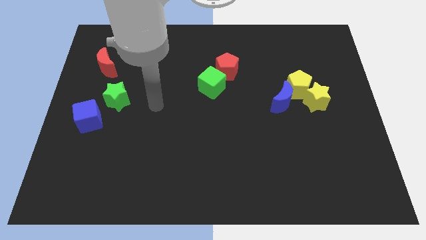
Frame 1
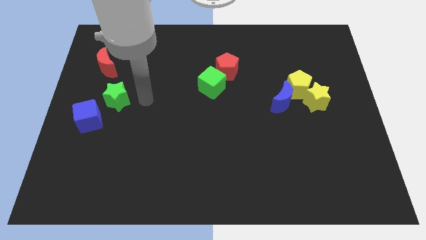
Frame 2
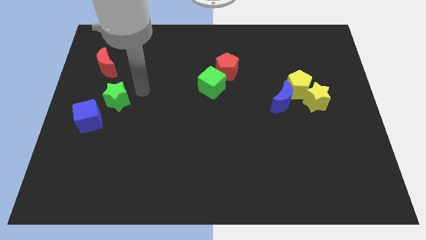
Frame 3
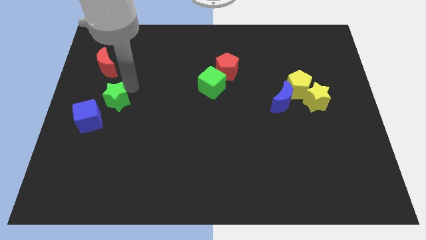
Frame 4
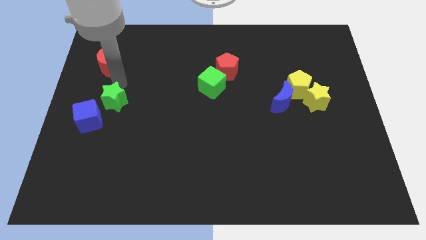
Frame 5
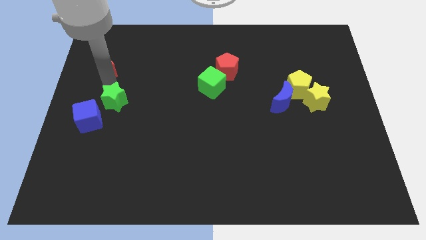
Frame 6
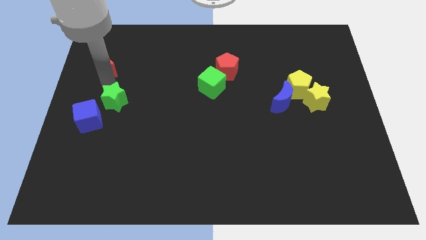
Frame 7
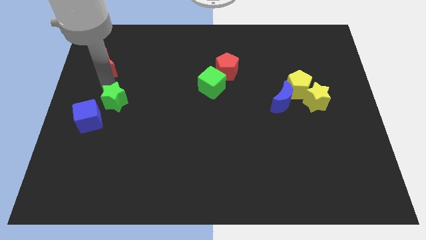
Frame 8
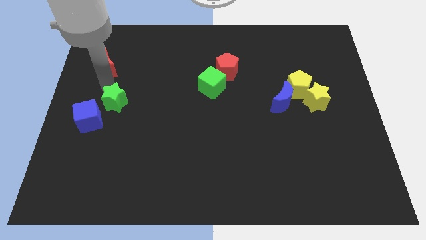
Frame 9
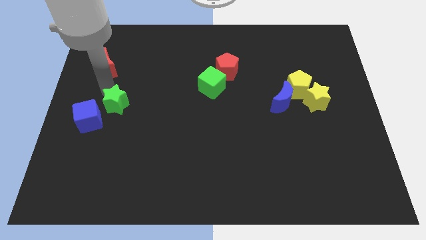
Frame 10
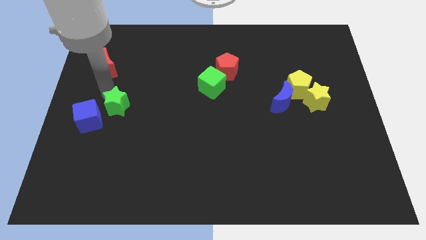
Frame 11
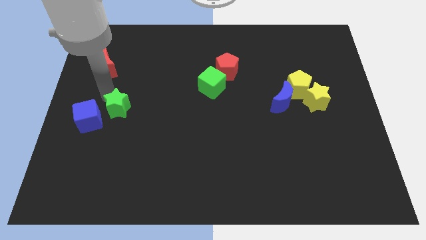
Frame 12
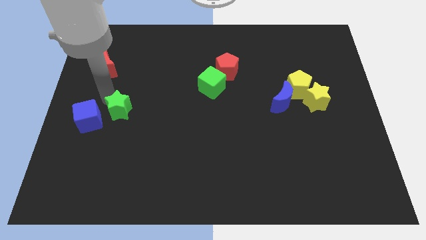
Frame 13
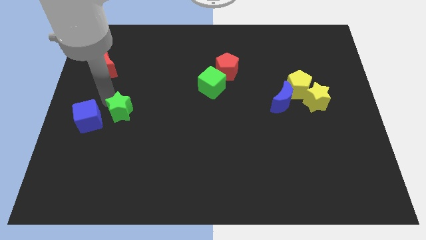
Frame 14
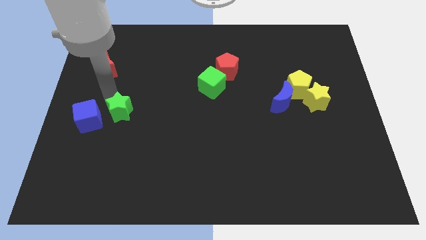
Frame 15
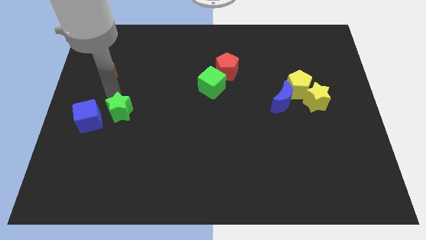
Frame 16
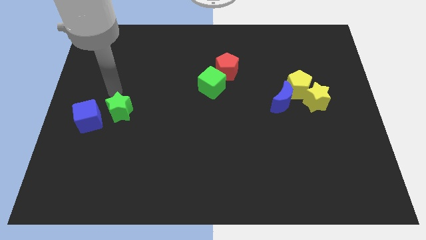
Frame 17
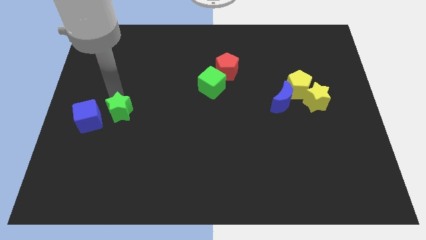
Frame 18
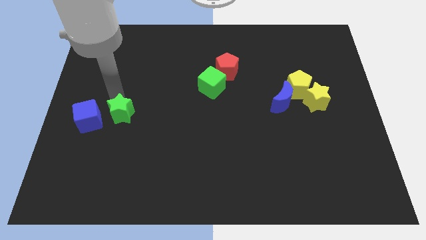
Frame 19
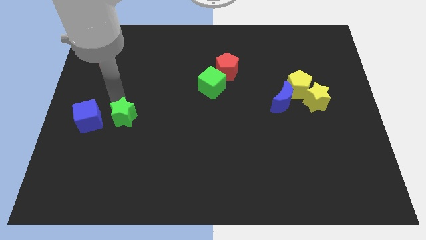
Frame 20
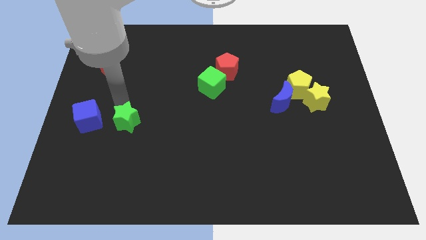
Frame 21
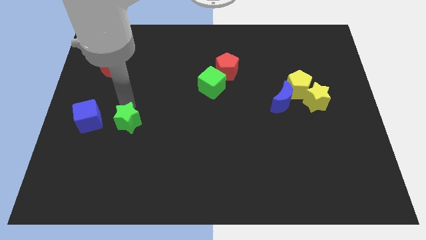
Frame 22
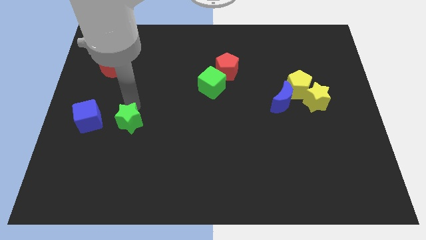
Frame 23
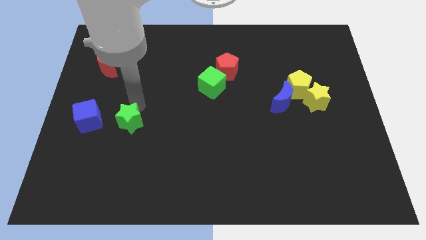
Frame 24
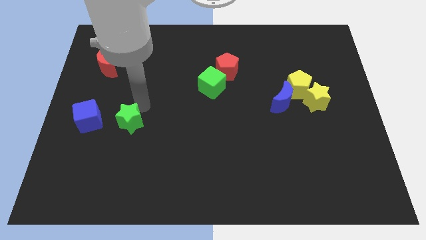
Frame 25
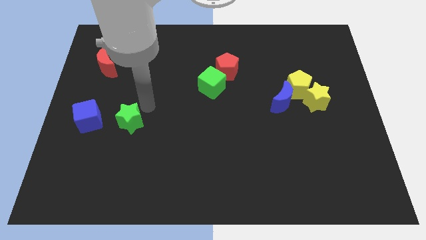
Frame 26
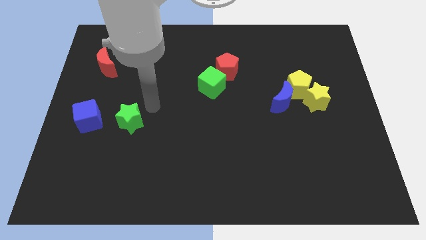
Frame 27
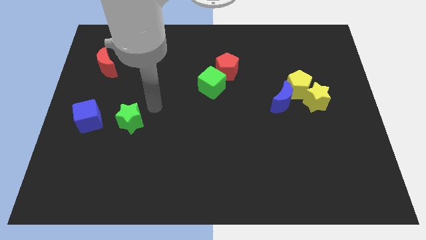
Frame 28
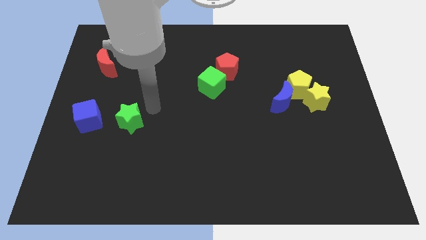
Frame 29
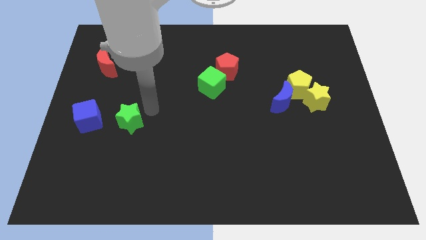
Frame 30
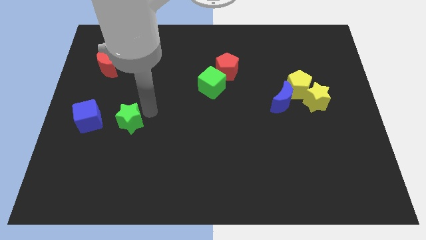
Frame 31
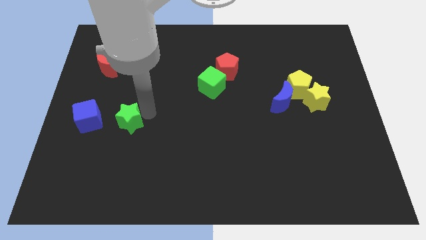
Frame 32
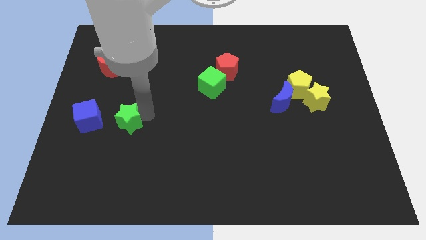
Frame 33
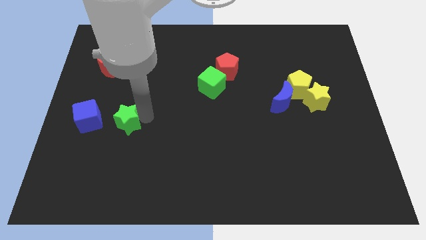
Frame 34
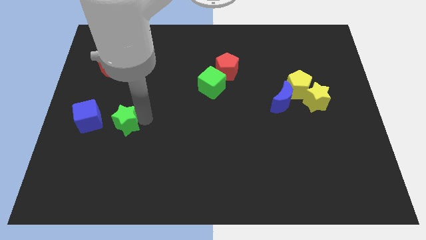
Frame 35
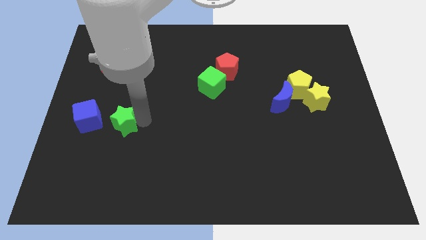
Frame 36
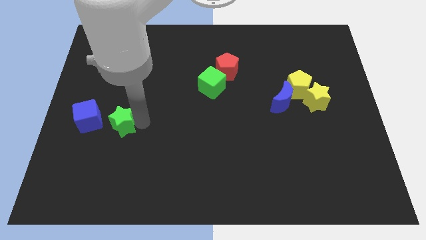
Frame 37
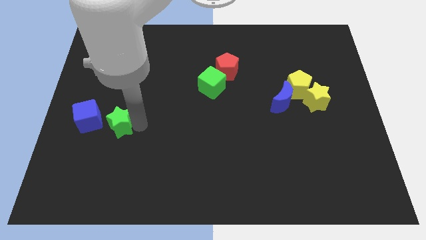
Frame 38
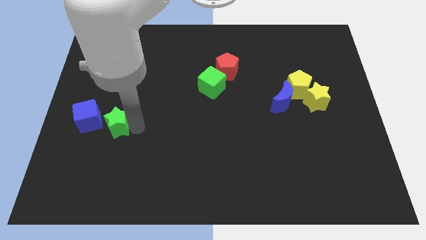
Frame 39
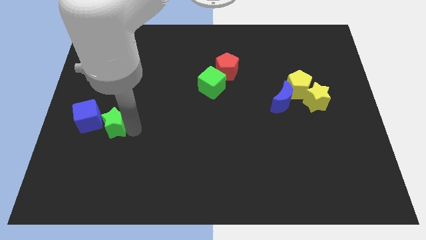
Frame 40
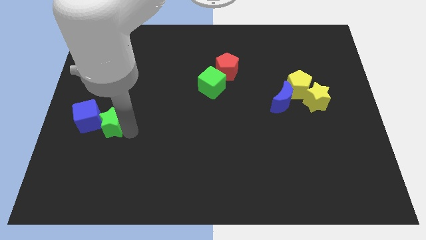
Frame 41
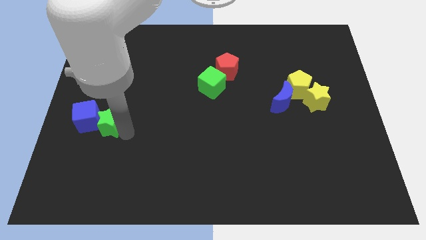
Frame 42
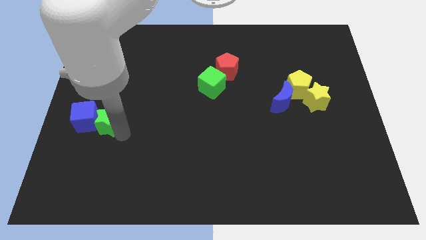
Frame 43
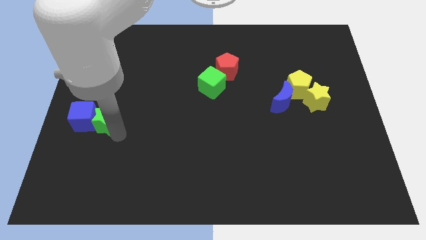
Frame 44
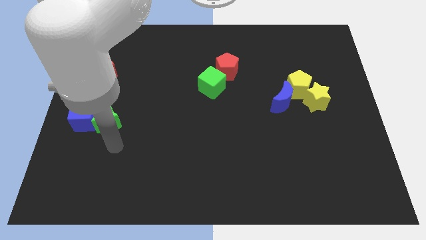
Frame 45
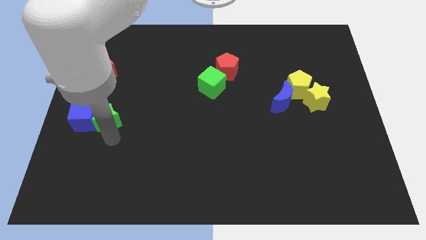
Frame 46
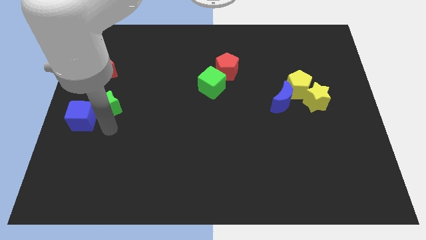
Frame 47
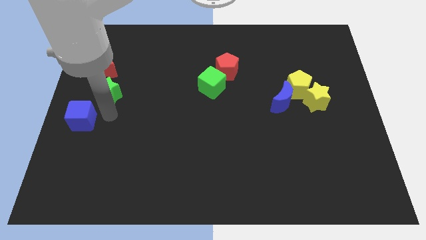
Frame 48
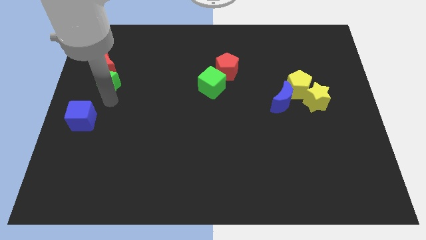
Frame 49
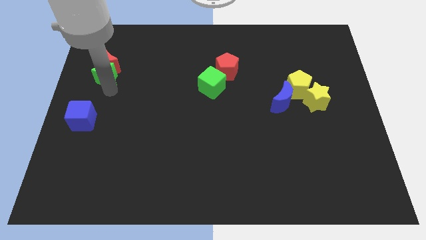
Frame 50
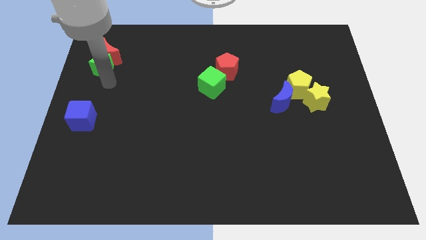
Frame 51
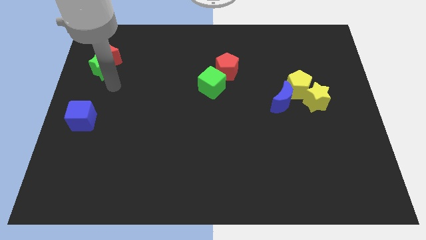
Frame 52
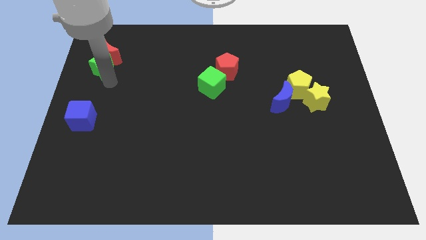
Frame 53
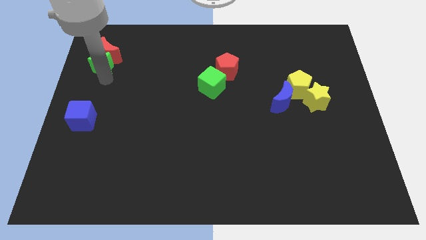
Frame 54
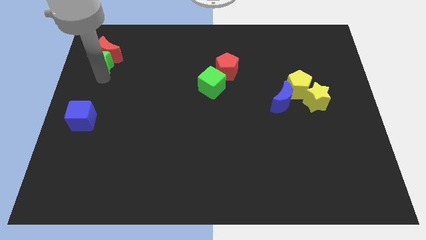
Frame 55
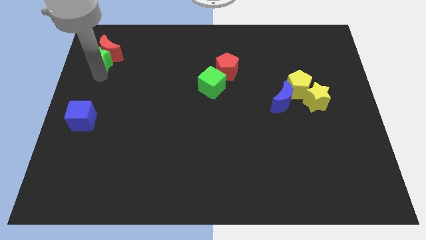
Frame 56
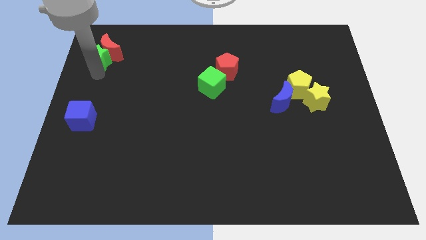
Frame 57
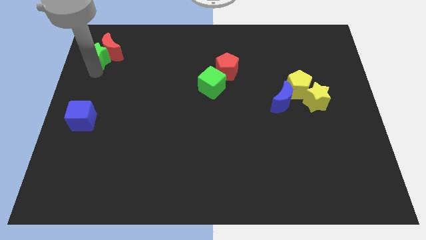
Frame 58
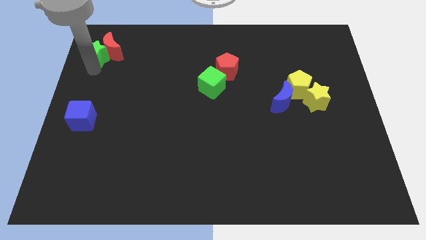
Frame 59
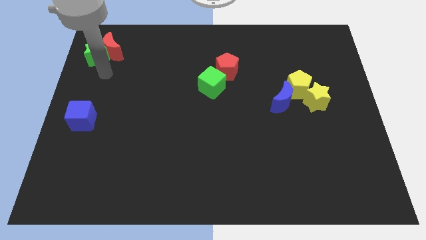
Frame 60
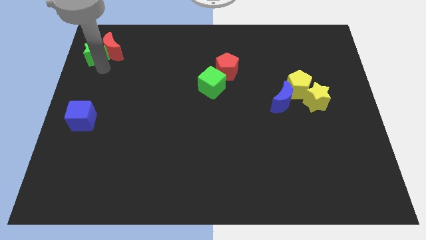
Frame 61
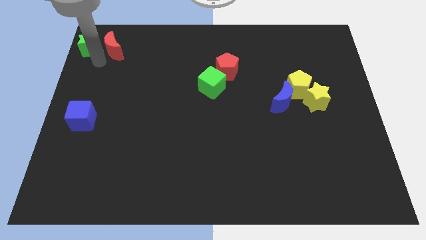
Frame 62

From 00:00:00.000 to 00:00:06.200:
slide the green star to the top left
